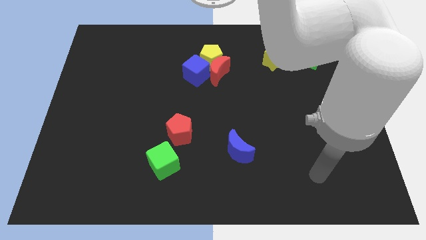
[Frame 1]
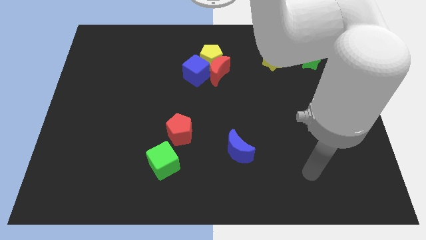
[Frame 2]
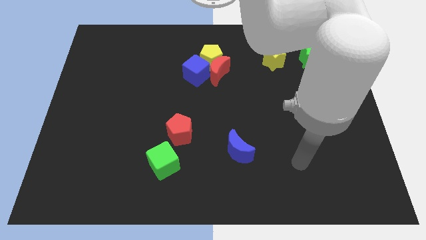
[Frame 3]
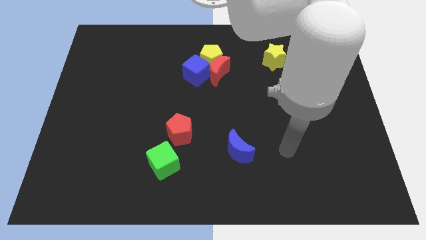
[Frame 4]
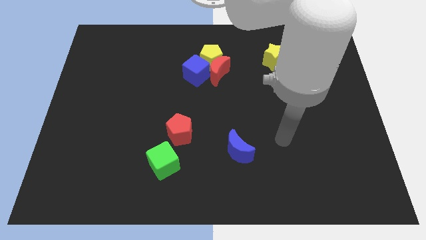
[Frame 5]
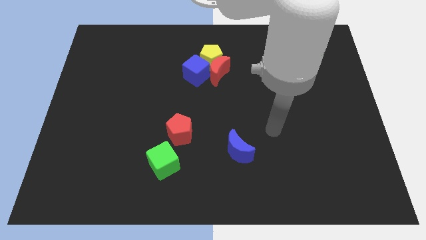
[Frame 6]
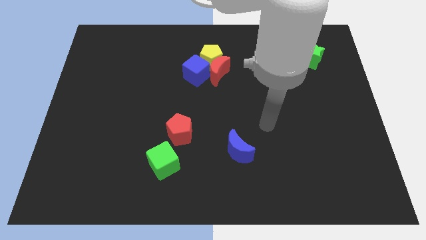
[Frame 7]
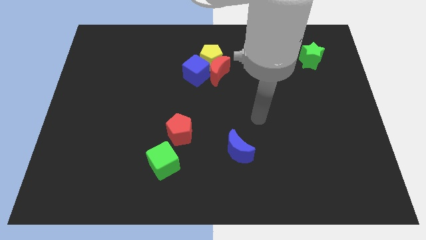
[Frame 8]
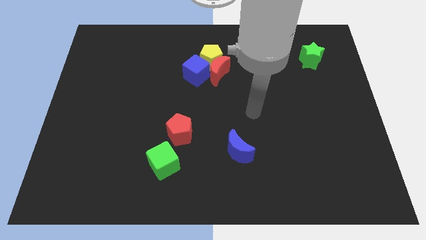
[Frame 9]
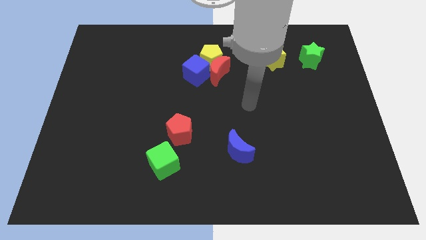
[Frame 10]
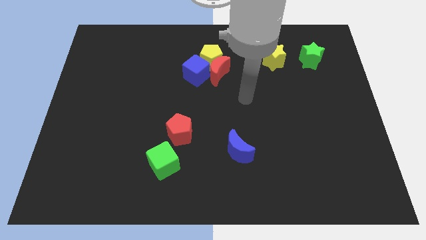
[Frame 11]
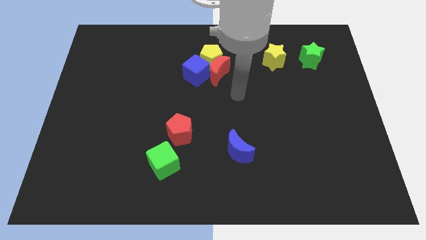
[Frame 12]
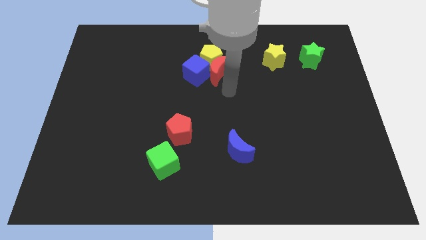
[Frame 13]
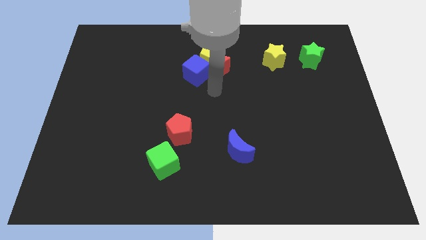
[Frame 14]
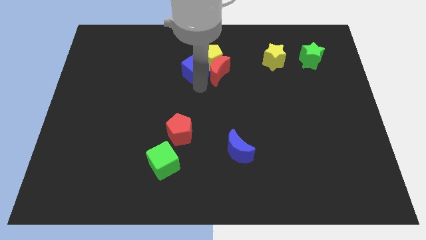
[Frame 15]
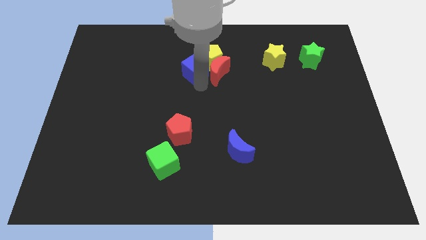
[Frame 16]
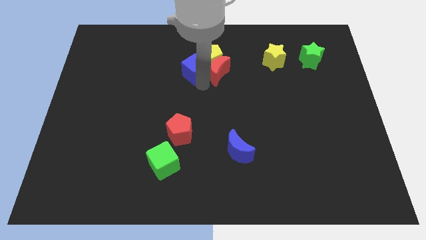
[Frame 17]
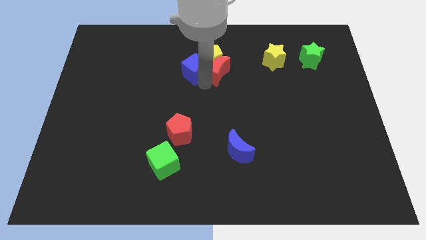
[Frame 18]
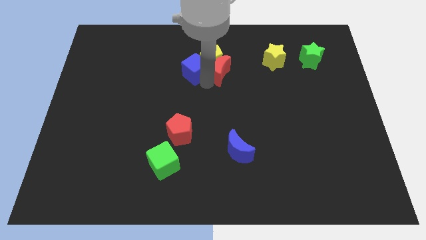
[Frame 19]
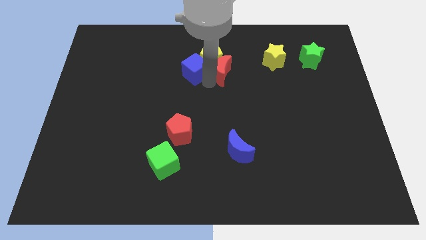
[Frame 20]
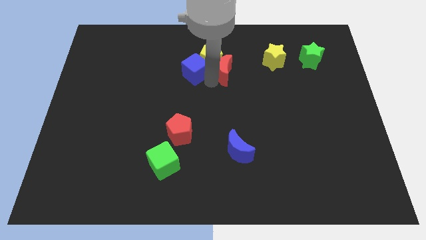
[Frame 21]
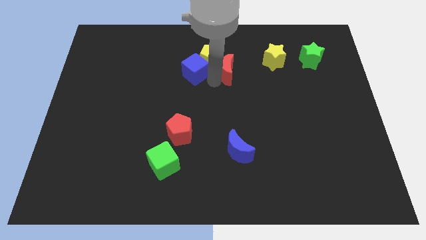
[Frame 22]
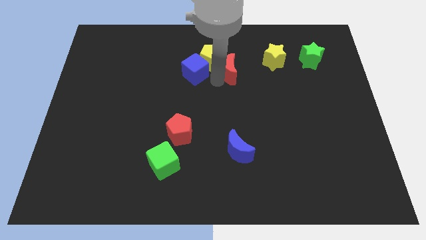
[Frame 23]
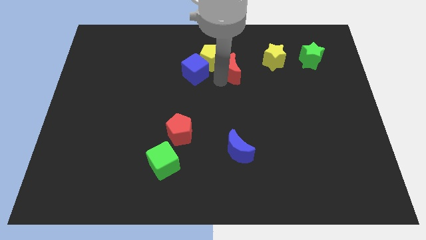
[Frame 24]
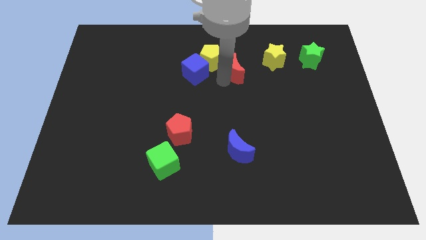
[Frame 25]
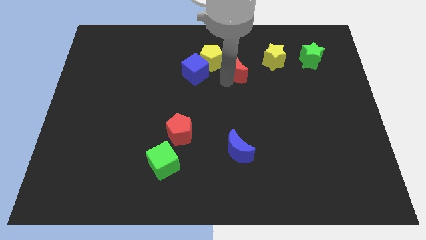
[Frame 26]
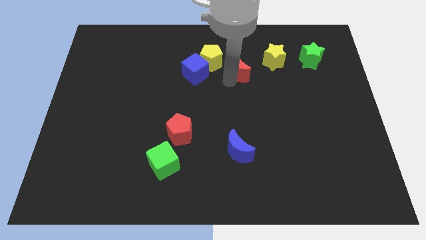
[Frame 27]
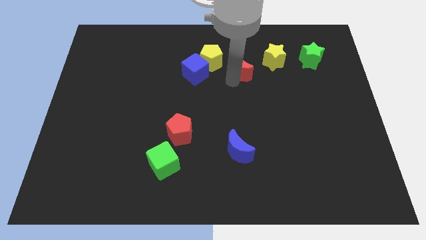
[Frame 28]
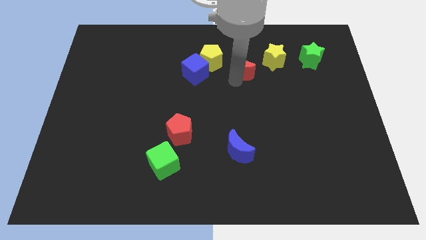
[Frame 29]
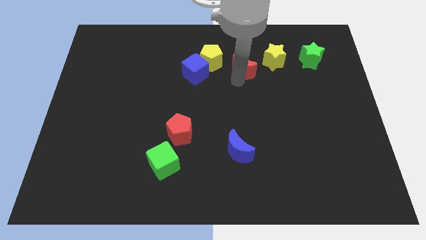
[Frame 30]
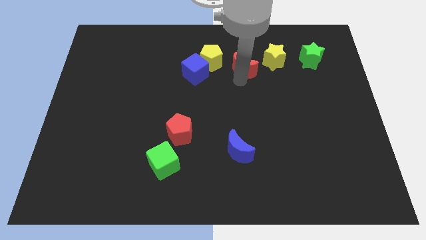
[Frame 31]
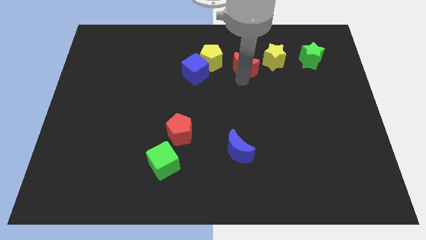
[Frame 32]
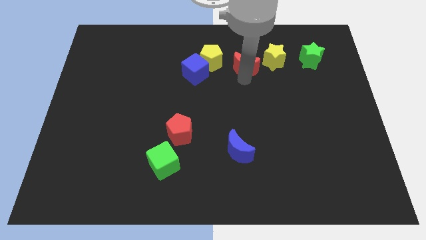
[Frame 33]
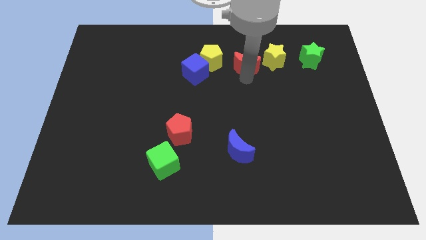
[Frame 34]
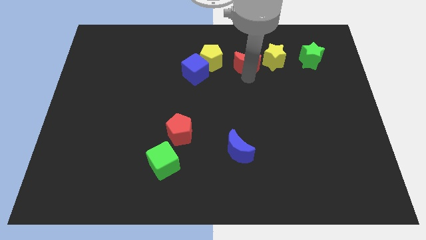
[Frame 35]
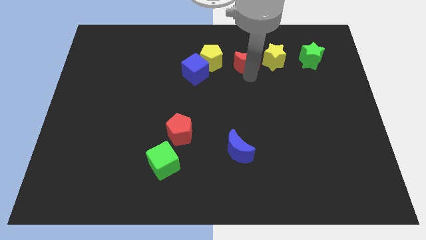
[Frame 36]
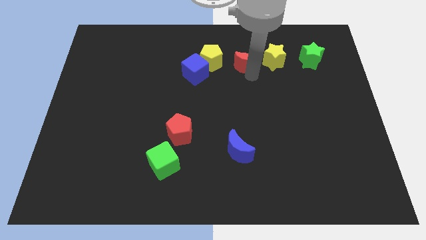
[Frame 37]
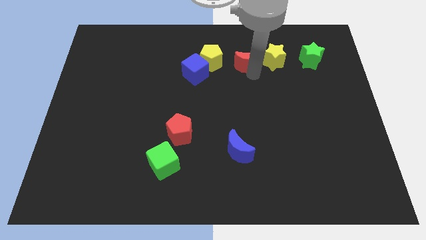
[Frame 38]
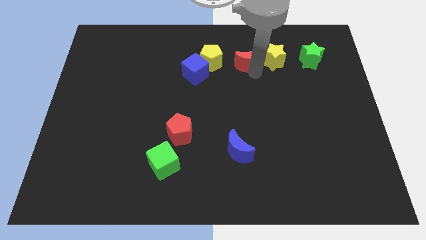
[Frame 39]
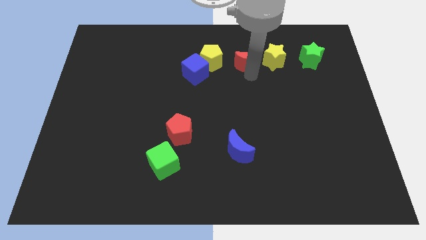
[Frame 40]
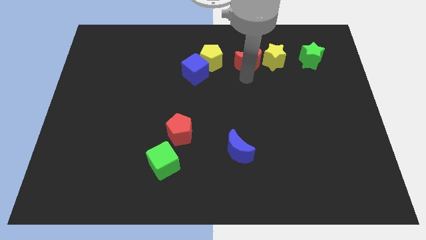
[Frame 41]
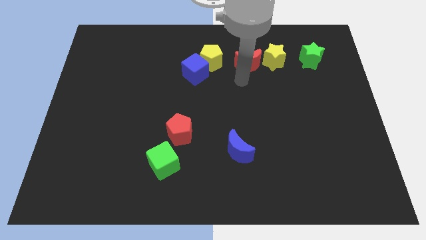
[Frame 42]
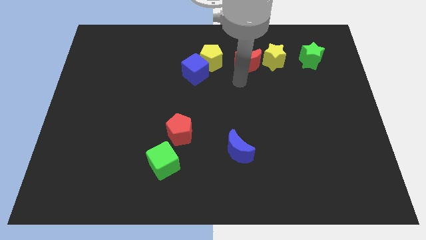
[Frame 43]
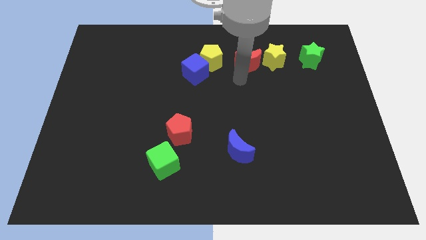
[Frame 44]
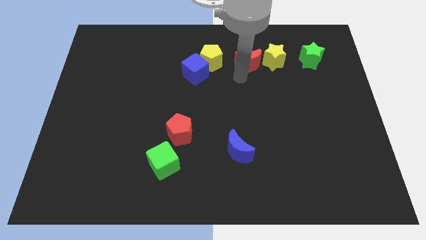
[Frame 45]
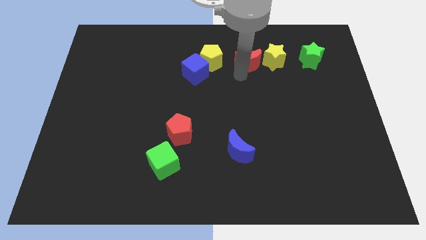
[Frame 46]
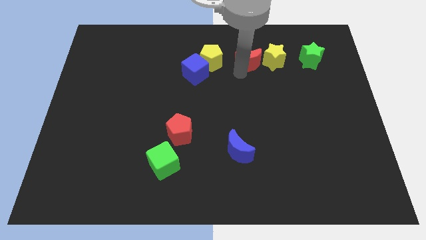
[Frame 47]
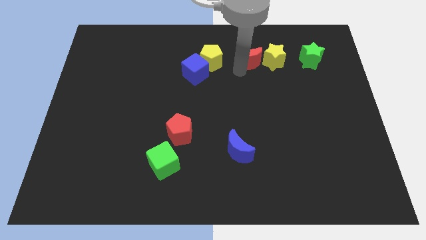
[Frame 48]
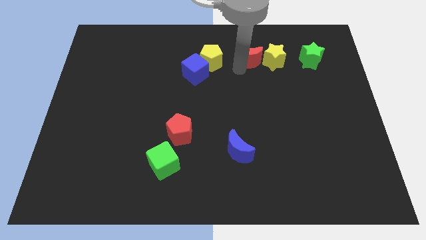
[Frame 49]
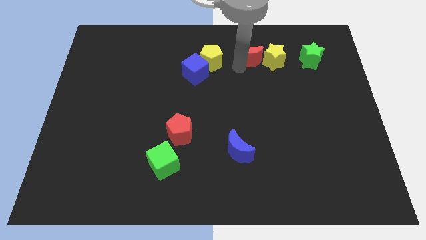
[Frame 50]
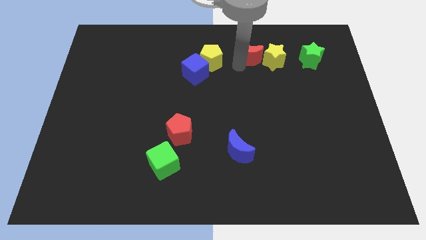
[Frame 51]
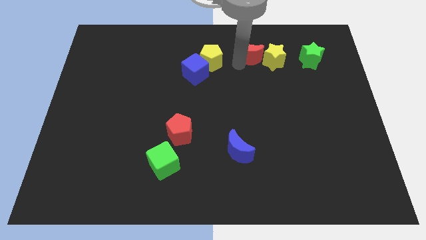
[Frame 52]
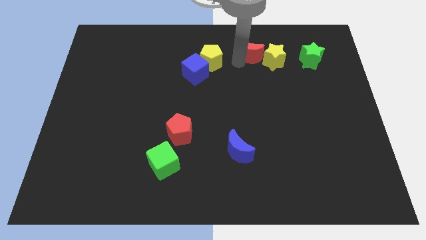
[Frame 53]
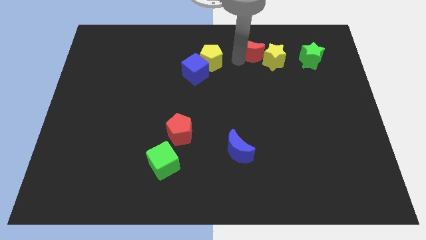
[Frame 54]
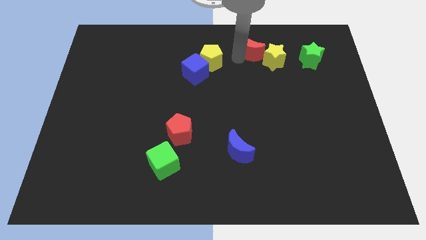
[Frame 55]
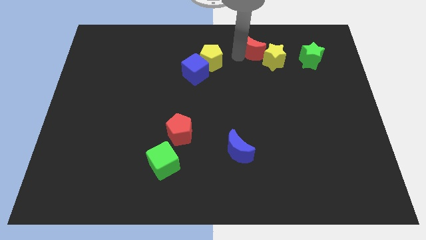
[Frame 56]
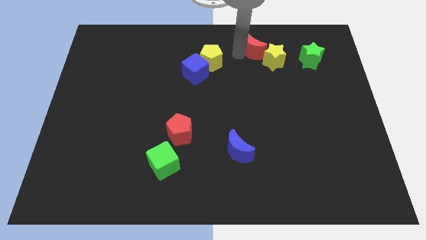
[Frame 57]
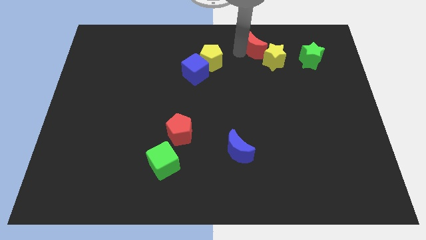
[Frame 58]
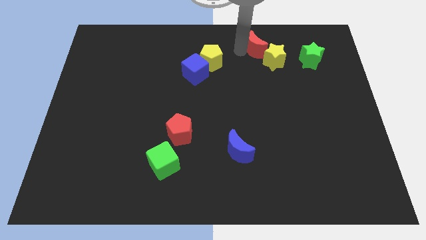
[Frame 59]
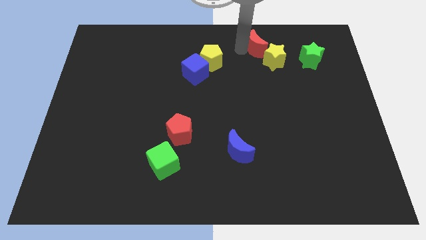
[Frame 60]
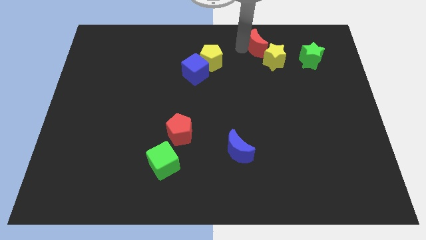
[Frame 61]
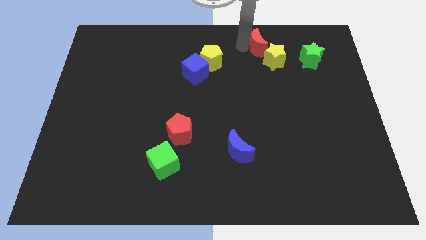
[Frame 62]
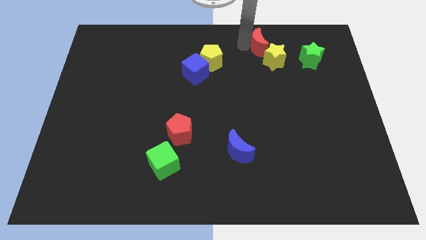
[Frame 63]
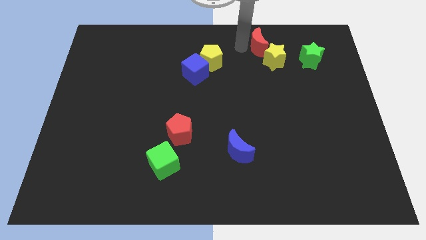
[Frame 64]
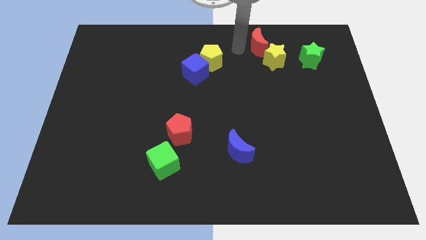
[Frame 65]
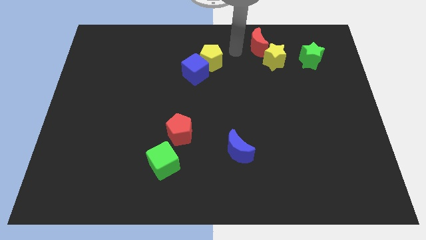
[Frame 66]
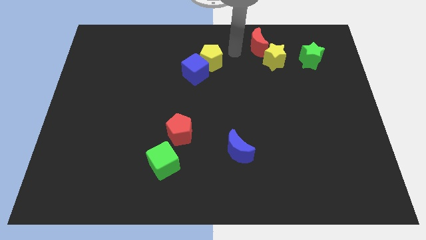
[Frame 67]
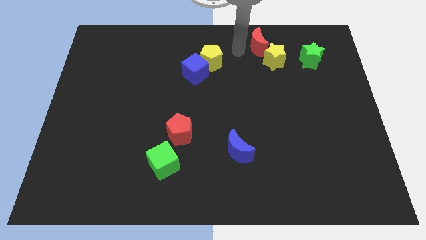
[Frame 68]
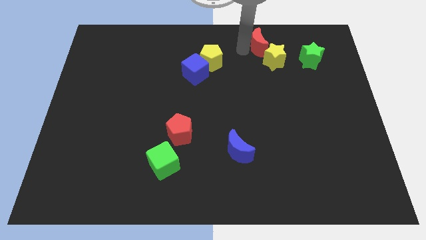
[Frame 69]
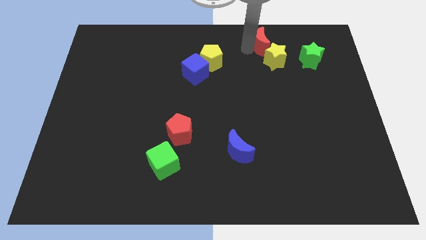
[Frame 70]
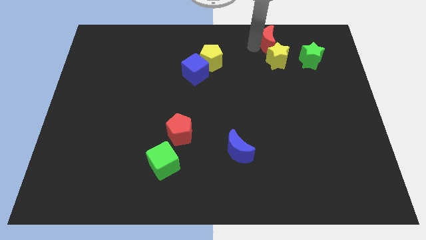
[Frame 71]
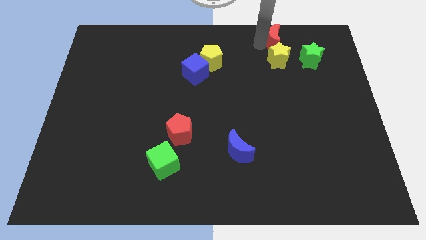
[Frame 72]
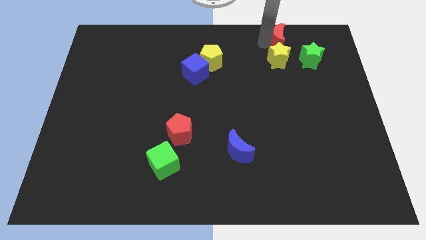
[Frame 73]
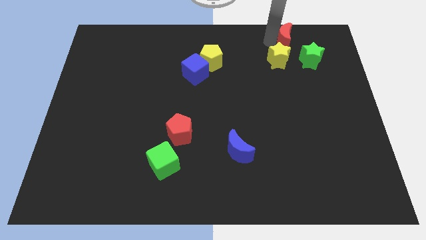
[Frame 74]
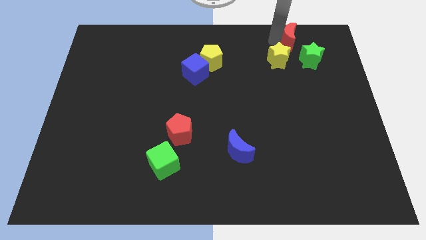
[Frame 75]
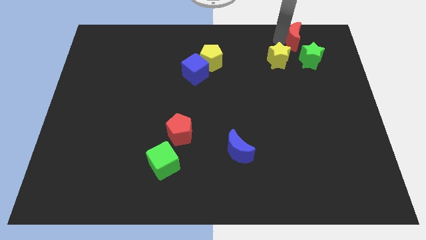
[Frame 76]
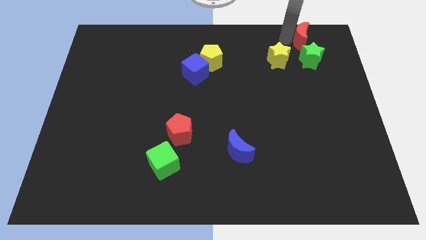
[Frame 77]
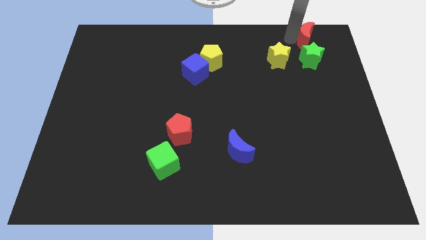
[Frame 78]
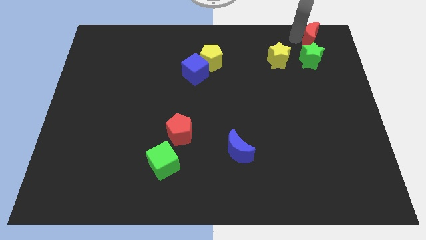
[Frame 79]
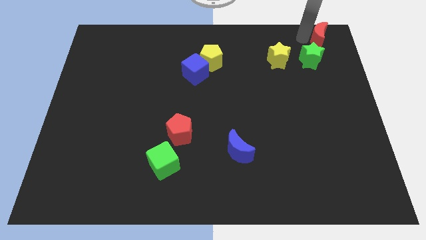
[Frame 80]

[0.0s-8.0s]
push the red moon to the upper right corner
